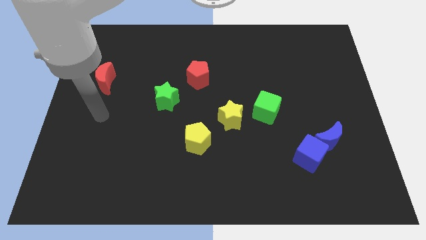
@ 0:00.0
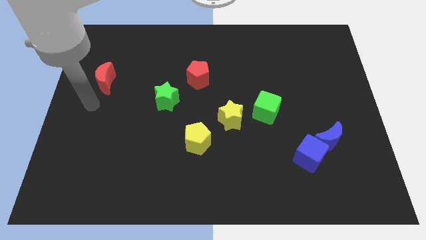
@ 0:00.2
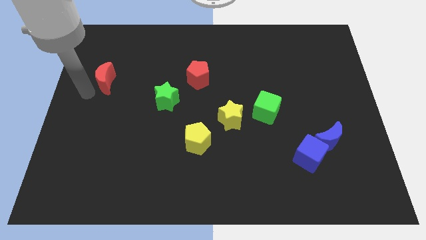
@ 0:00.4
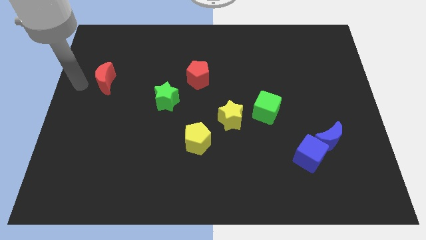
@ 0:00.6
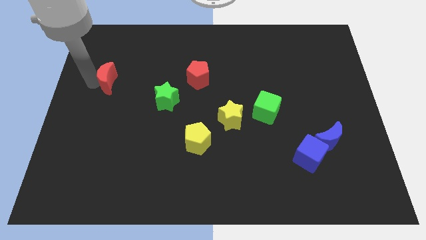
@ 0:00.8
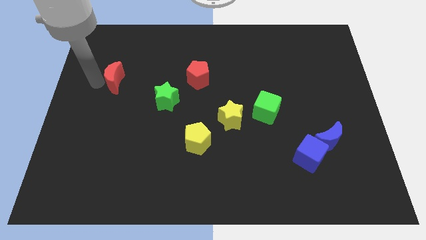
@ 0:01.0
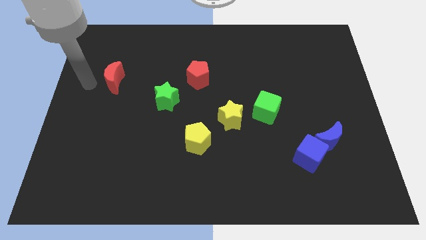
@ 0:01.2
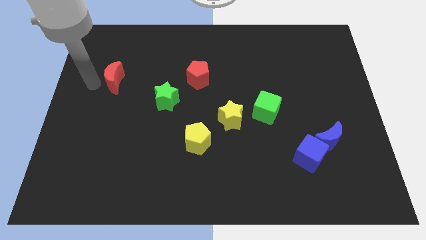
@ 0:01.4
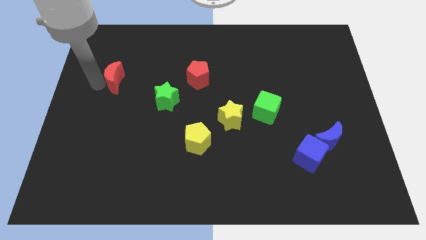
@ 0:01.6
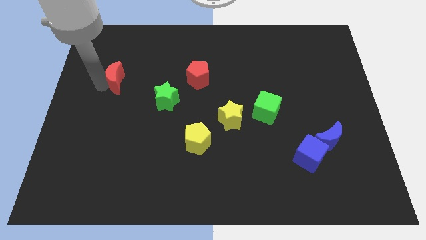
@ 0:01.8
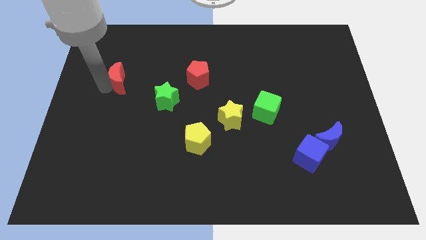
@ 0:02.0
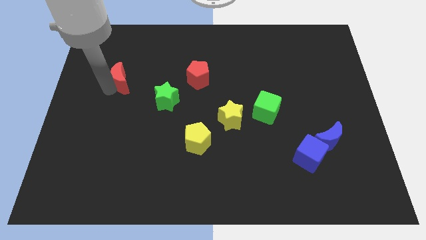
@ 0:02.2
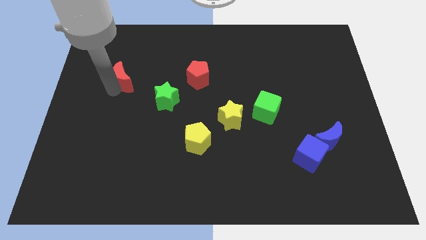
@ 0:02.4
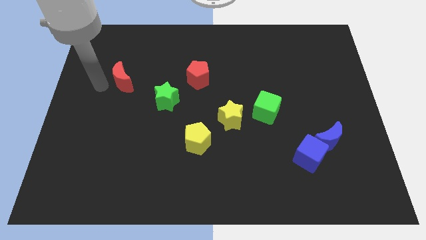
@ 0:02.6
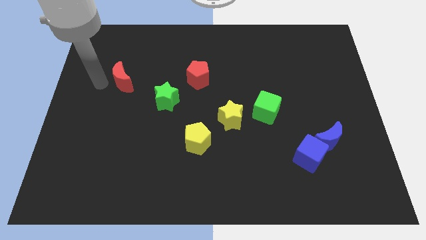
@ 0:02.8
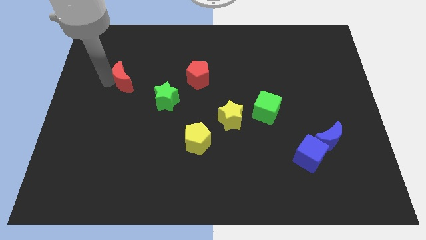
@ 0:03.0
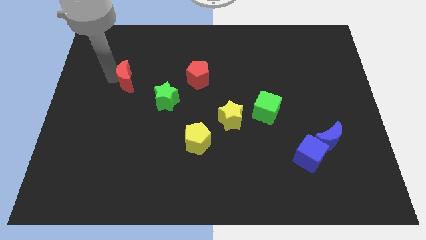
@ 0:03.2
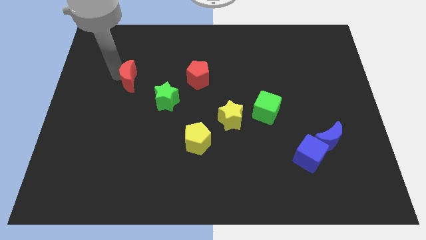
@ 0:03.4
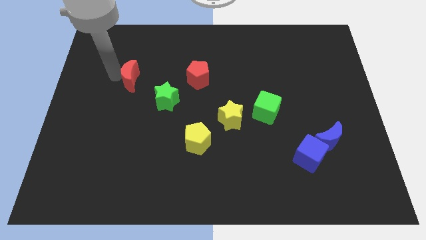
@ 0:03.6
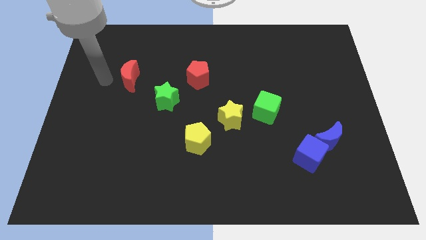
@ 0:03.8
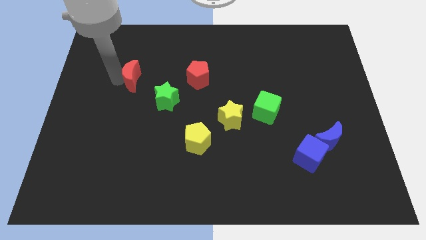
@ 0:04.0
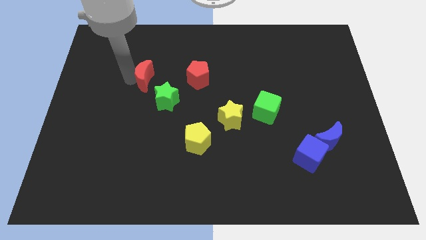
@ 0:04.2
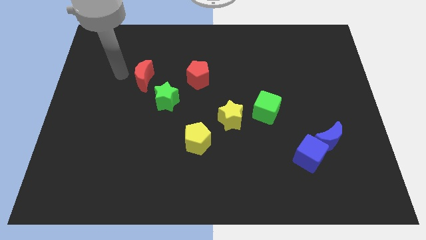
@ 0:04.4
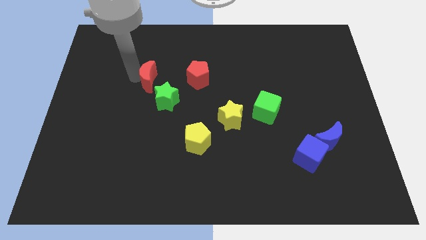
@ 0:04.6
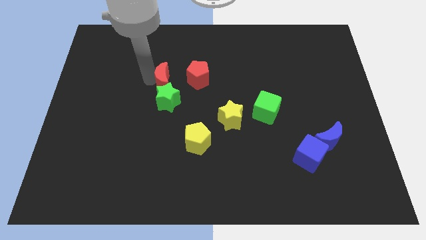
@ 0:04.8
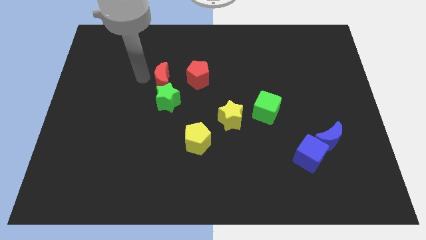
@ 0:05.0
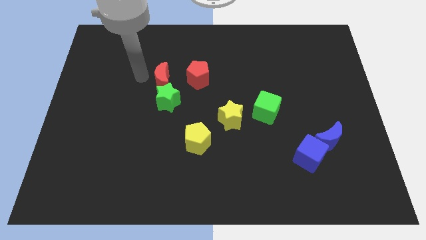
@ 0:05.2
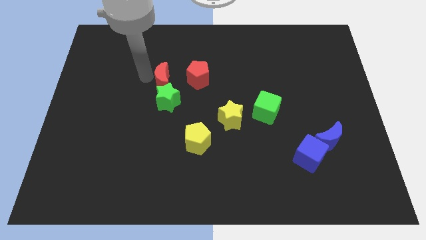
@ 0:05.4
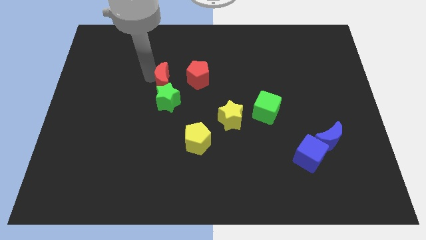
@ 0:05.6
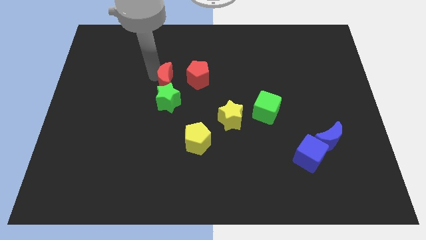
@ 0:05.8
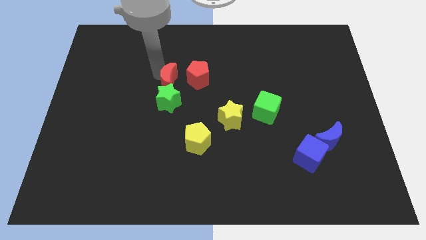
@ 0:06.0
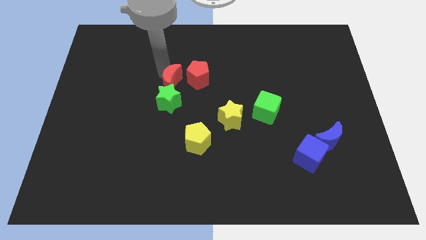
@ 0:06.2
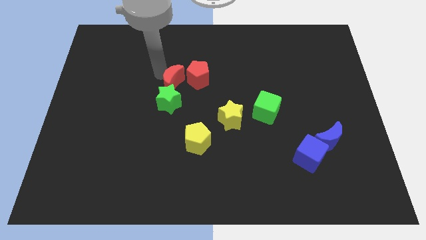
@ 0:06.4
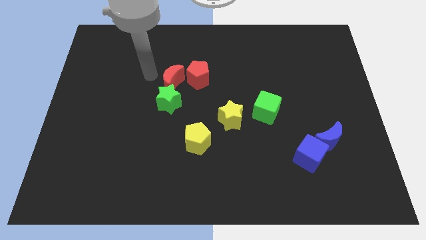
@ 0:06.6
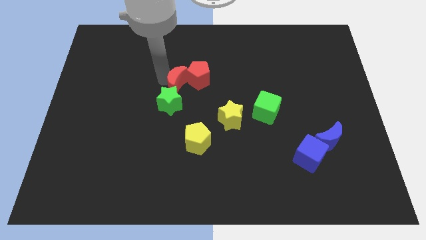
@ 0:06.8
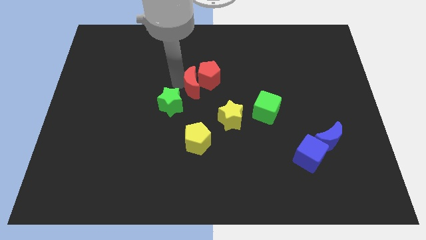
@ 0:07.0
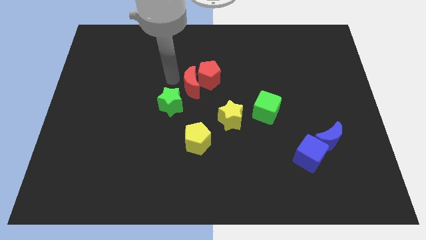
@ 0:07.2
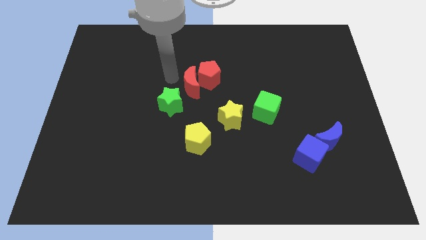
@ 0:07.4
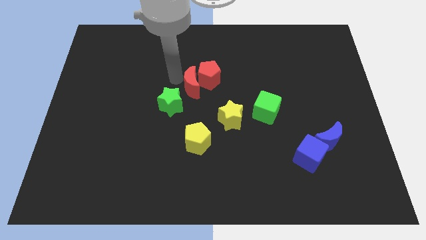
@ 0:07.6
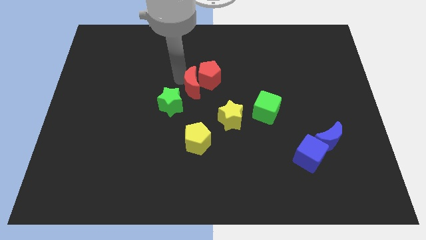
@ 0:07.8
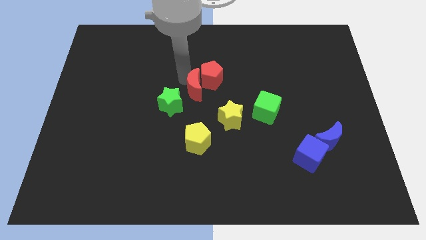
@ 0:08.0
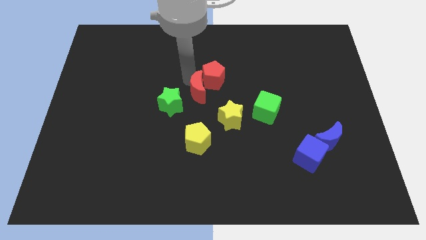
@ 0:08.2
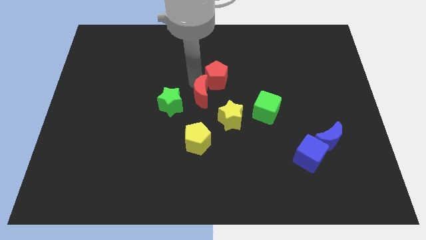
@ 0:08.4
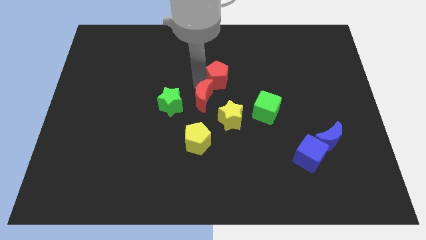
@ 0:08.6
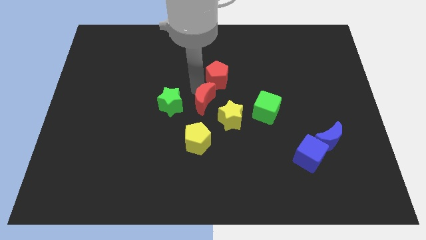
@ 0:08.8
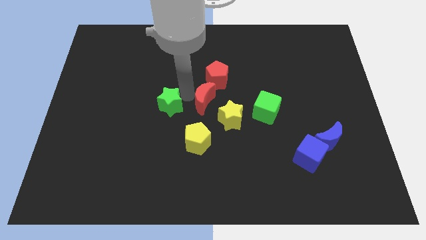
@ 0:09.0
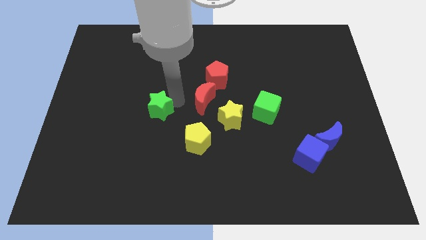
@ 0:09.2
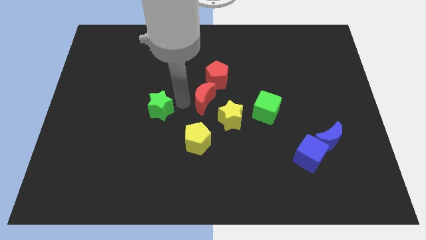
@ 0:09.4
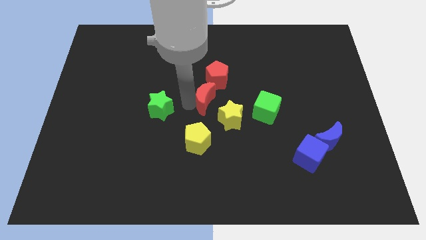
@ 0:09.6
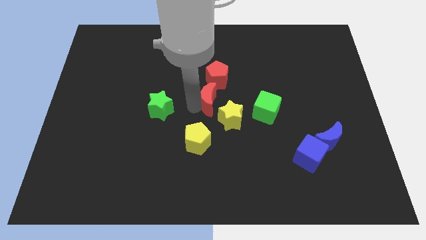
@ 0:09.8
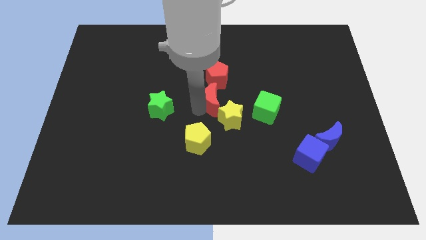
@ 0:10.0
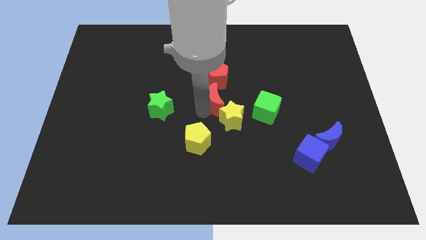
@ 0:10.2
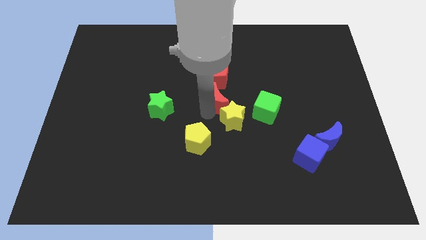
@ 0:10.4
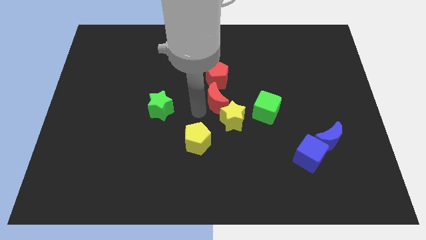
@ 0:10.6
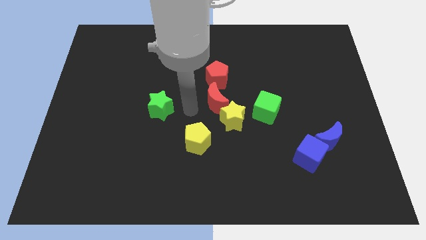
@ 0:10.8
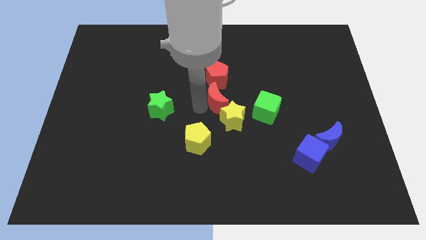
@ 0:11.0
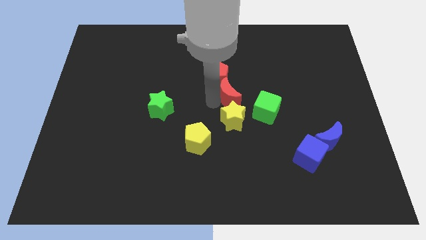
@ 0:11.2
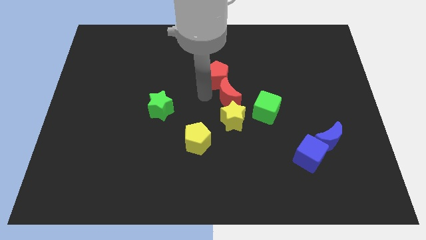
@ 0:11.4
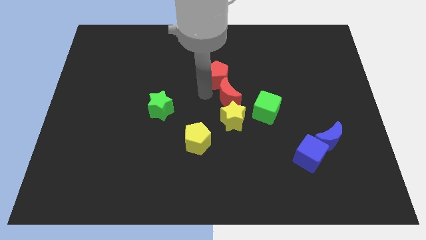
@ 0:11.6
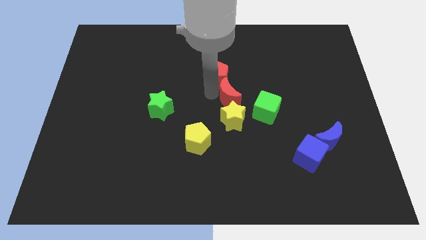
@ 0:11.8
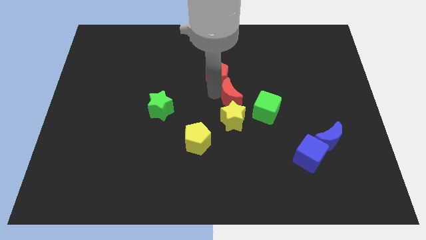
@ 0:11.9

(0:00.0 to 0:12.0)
move the red moon to the top right side of the yellow star

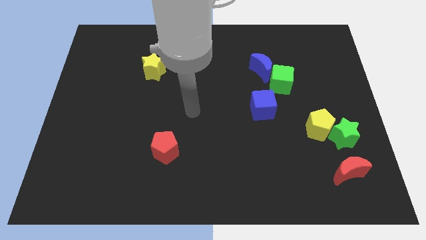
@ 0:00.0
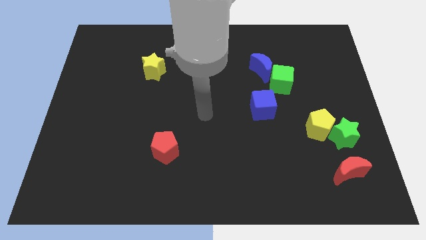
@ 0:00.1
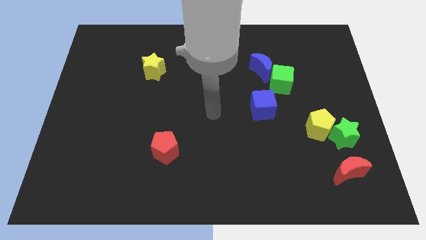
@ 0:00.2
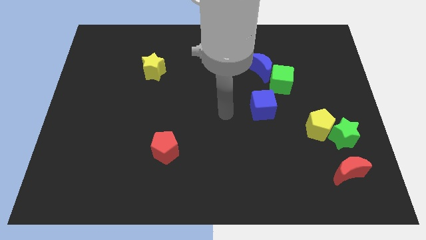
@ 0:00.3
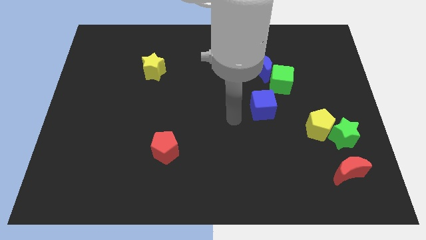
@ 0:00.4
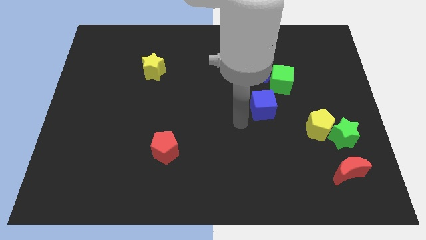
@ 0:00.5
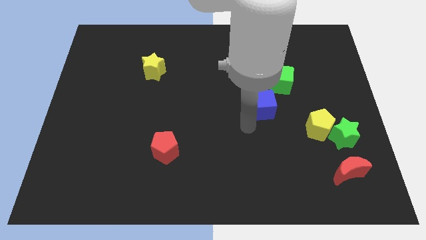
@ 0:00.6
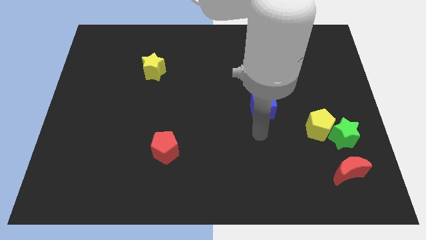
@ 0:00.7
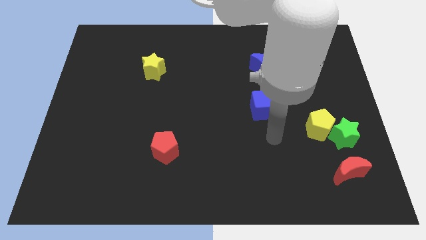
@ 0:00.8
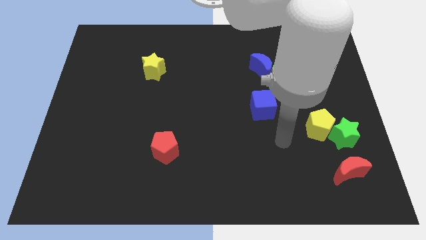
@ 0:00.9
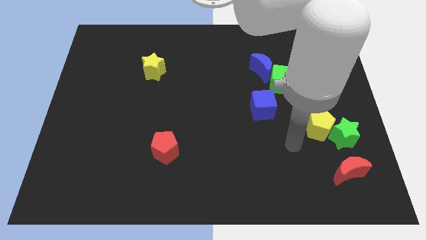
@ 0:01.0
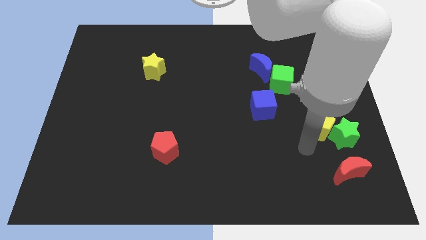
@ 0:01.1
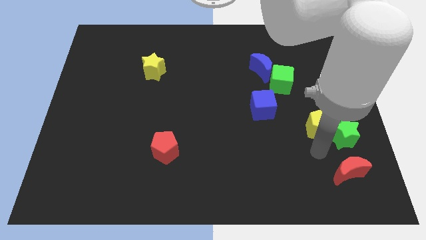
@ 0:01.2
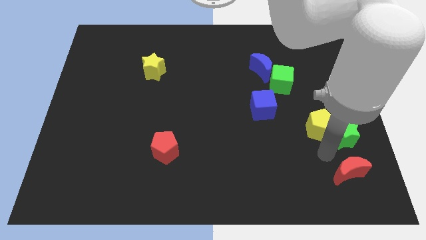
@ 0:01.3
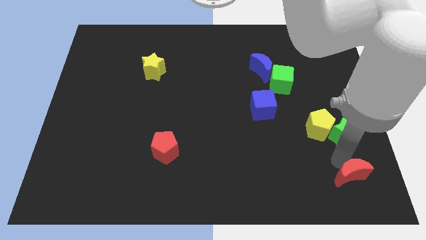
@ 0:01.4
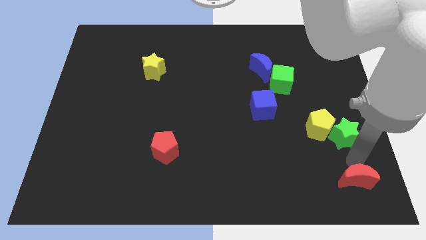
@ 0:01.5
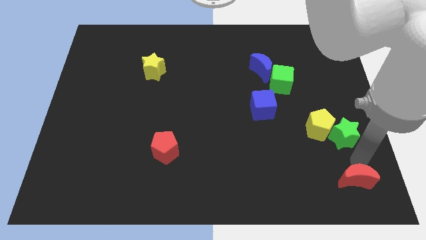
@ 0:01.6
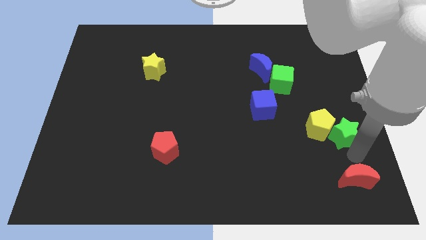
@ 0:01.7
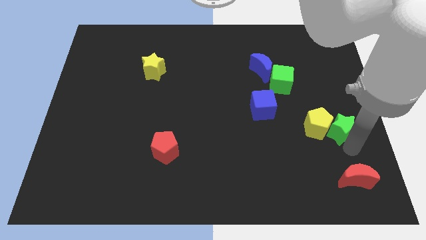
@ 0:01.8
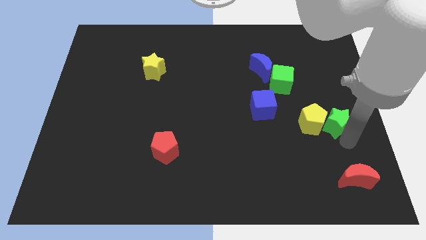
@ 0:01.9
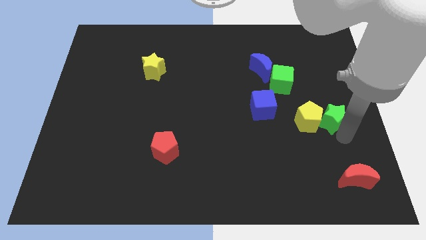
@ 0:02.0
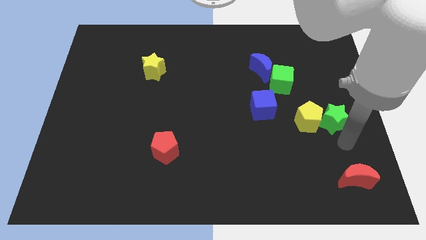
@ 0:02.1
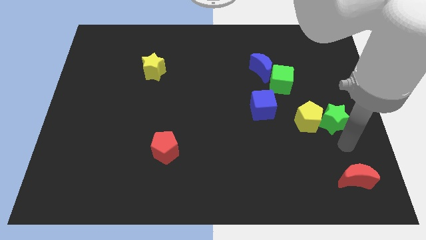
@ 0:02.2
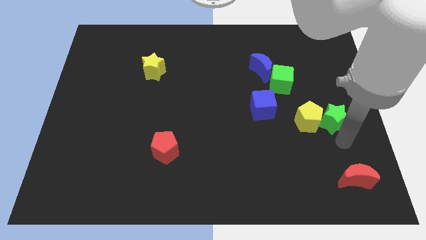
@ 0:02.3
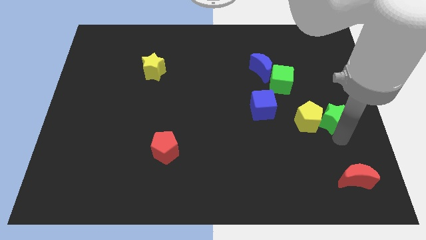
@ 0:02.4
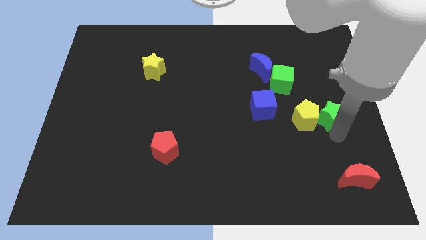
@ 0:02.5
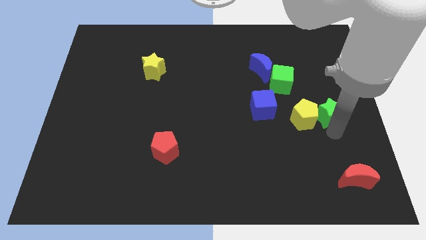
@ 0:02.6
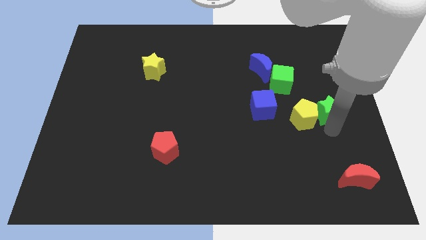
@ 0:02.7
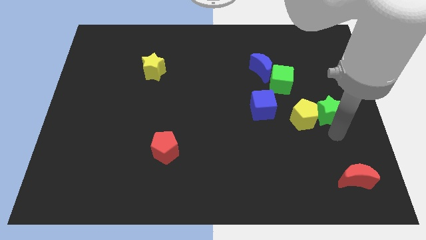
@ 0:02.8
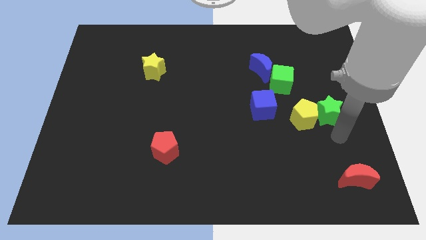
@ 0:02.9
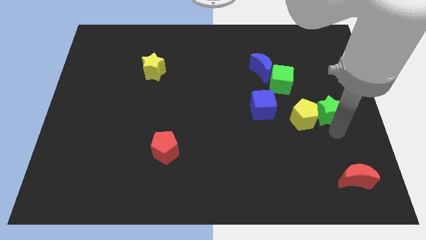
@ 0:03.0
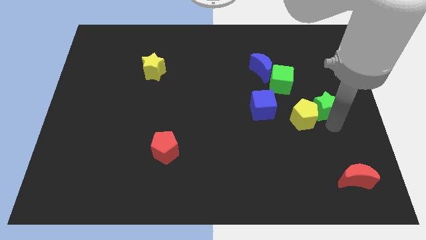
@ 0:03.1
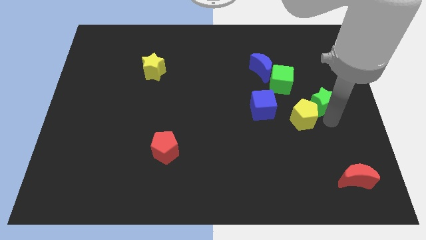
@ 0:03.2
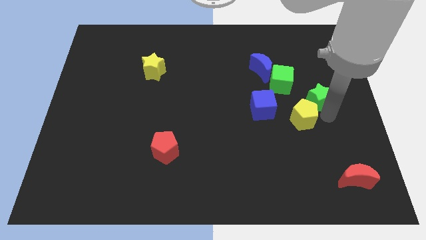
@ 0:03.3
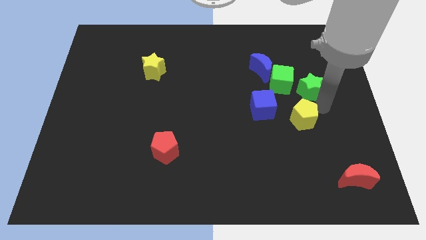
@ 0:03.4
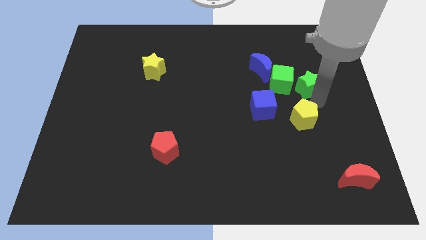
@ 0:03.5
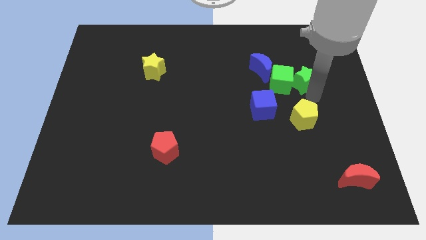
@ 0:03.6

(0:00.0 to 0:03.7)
put the green star to the right of the blue moon
